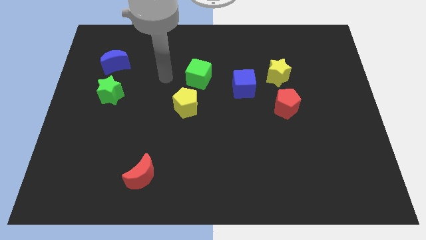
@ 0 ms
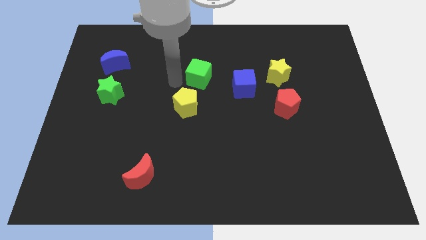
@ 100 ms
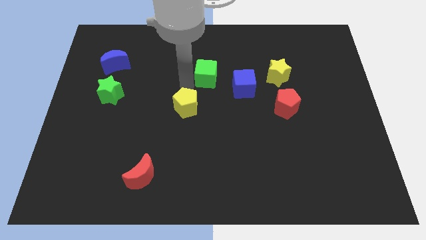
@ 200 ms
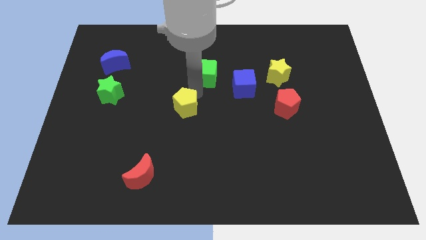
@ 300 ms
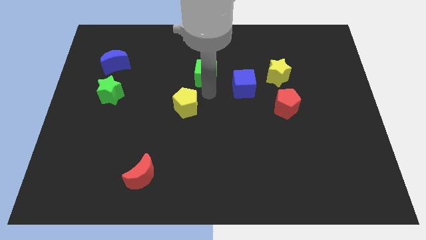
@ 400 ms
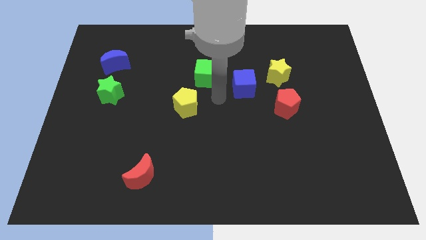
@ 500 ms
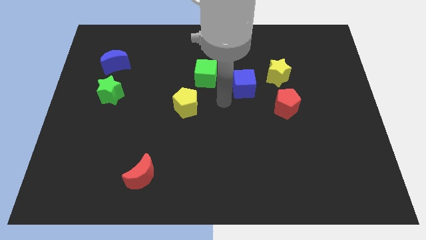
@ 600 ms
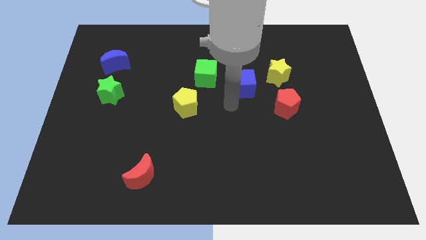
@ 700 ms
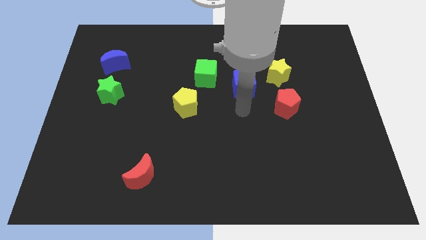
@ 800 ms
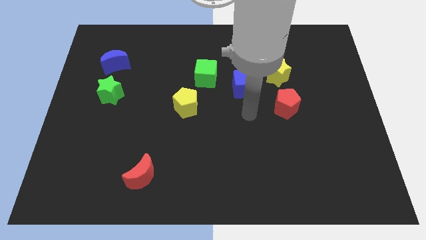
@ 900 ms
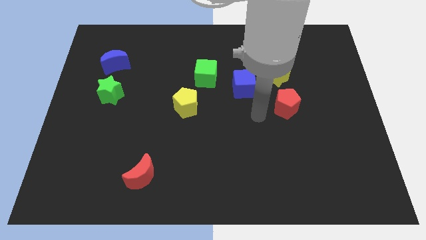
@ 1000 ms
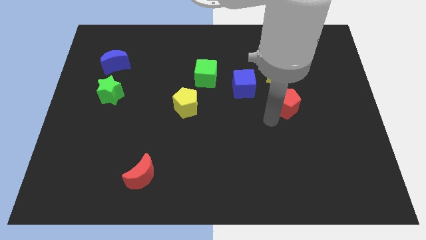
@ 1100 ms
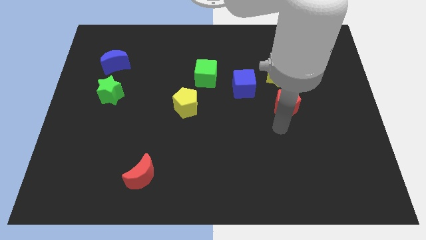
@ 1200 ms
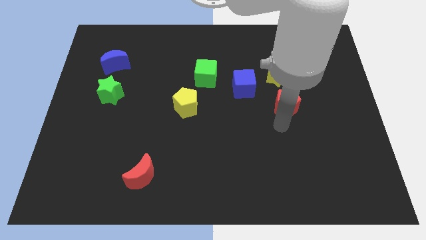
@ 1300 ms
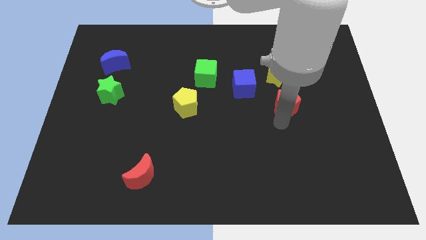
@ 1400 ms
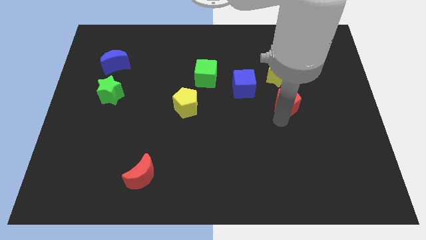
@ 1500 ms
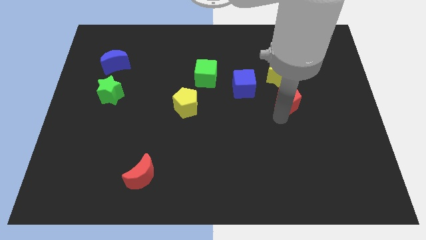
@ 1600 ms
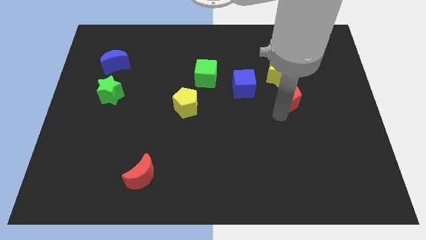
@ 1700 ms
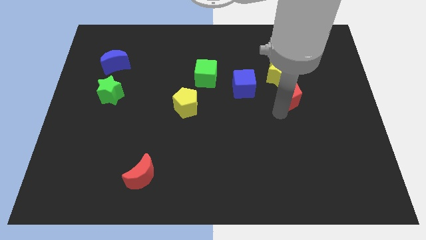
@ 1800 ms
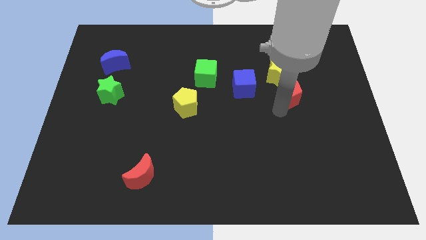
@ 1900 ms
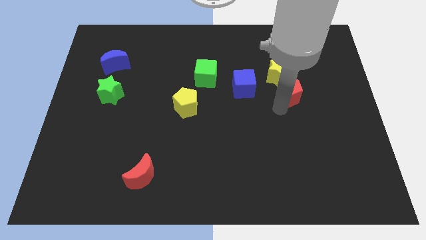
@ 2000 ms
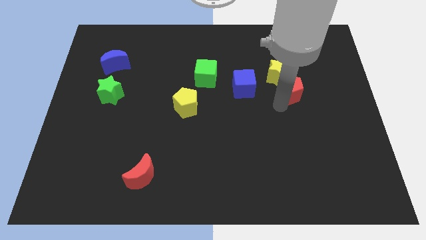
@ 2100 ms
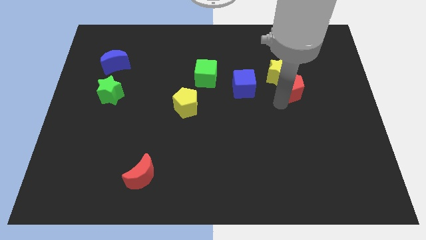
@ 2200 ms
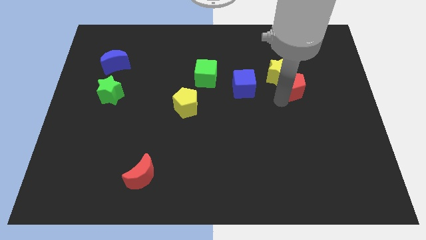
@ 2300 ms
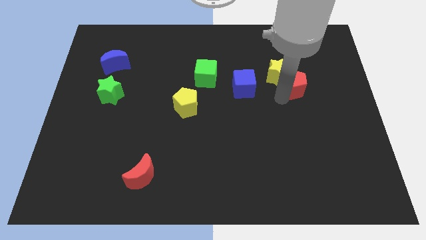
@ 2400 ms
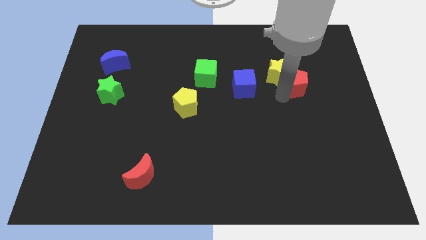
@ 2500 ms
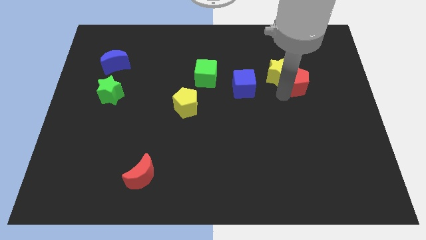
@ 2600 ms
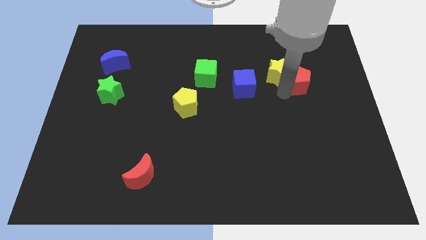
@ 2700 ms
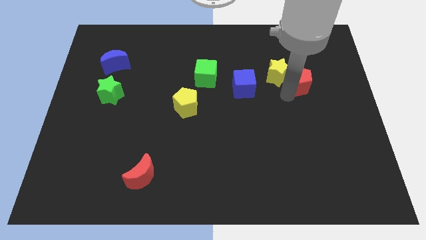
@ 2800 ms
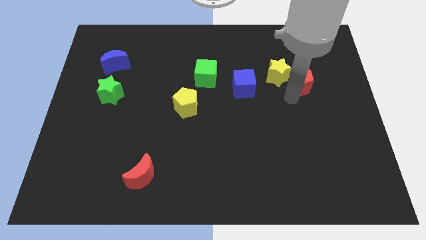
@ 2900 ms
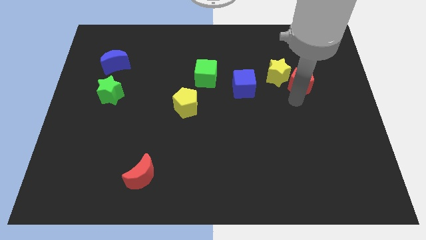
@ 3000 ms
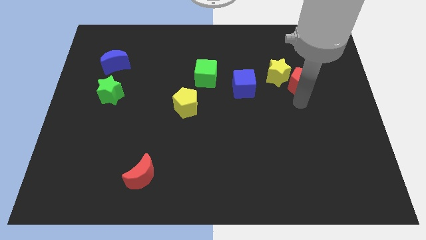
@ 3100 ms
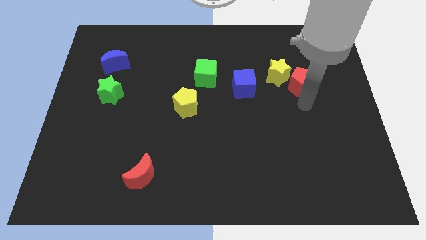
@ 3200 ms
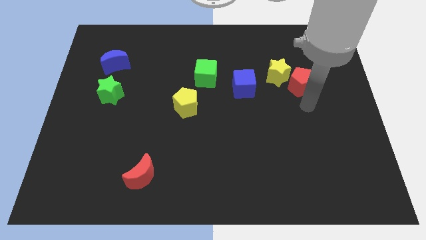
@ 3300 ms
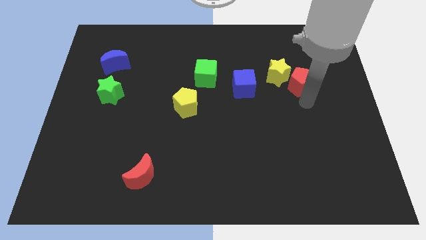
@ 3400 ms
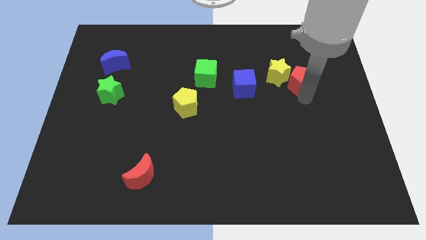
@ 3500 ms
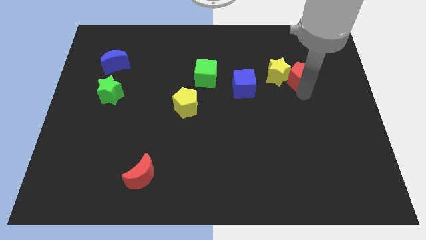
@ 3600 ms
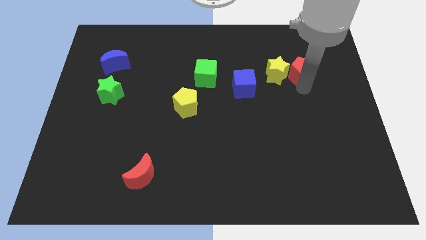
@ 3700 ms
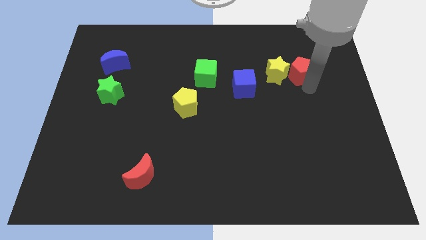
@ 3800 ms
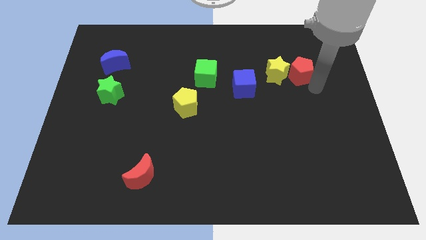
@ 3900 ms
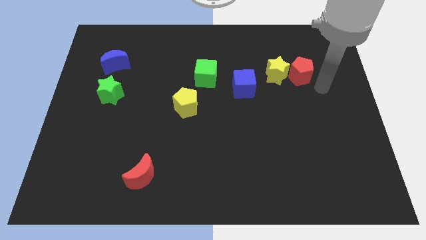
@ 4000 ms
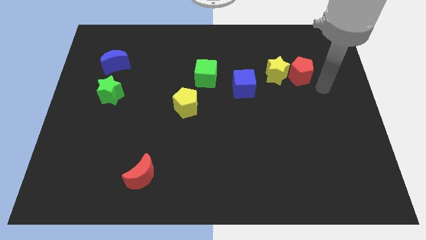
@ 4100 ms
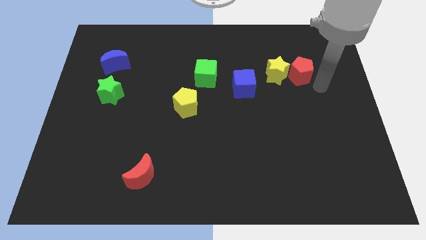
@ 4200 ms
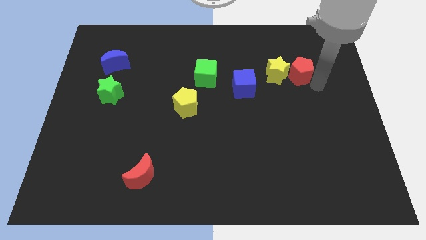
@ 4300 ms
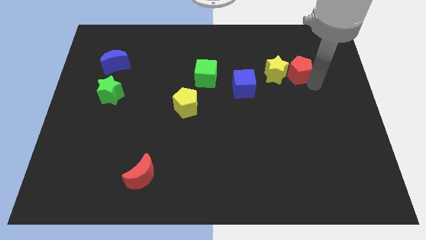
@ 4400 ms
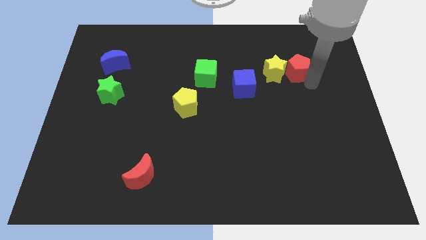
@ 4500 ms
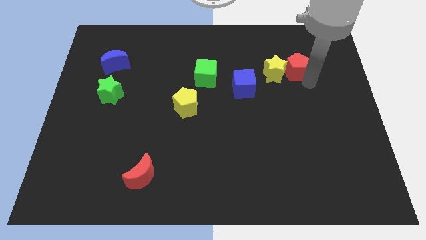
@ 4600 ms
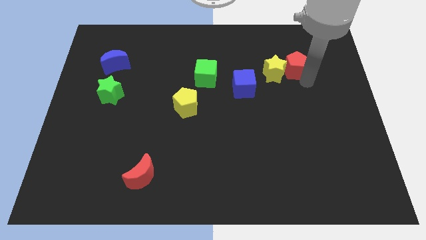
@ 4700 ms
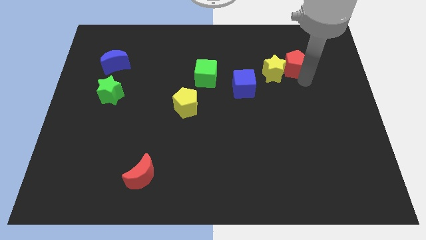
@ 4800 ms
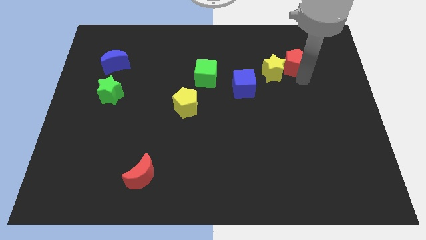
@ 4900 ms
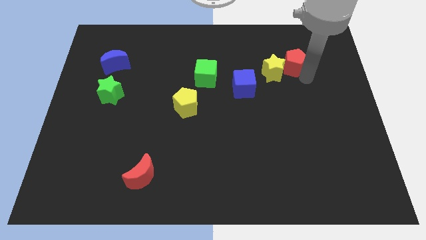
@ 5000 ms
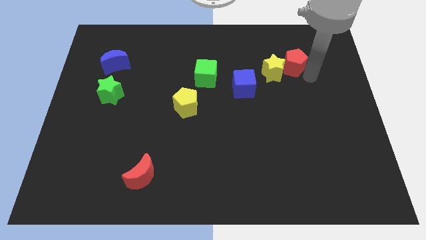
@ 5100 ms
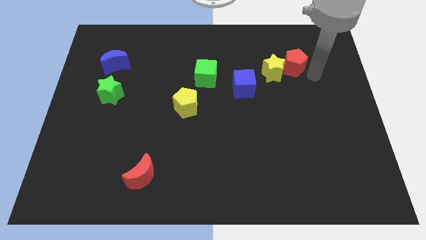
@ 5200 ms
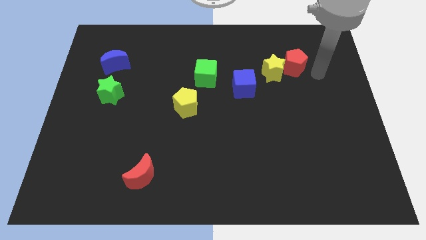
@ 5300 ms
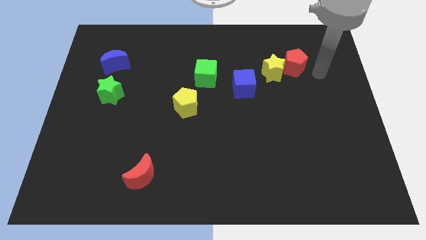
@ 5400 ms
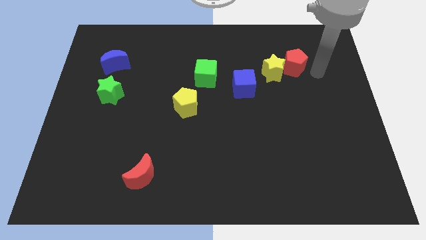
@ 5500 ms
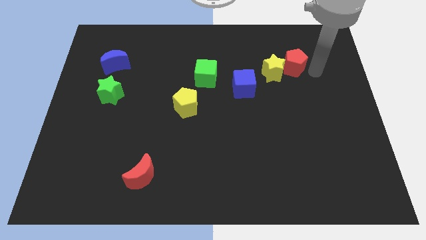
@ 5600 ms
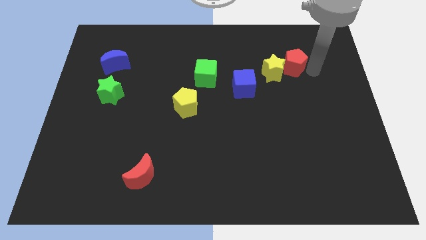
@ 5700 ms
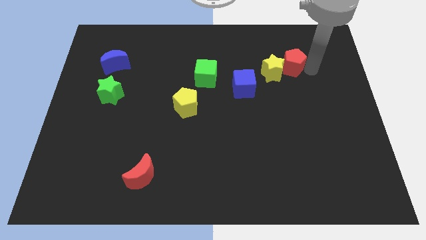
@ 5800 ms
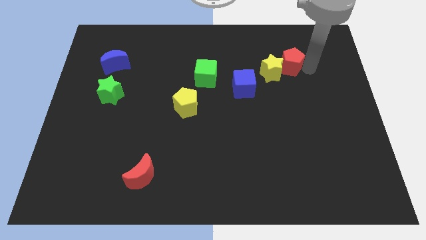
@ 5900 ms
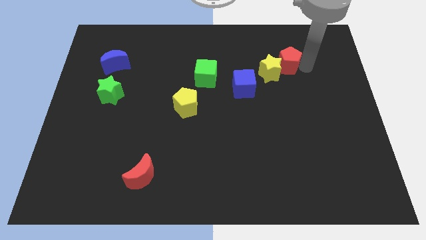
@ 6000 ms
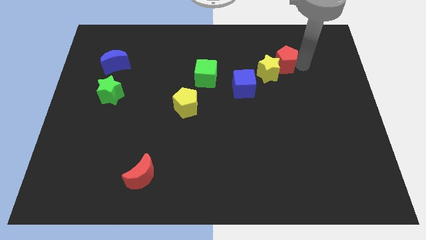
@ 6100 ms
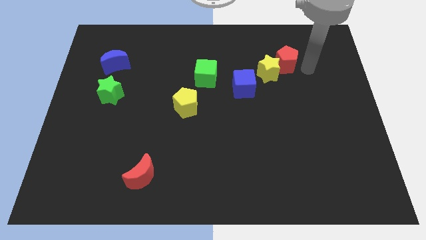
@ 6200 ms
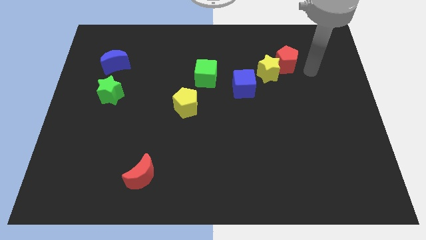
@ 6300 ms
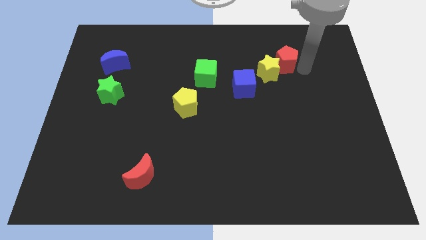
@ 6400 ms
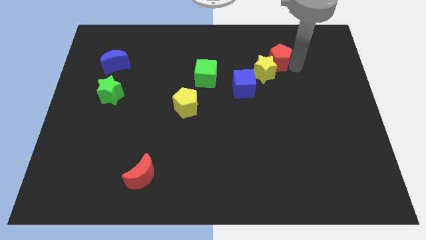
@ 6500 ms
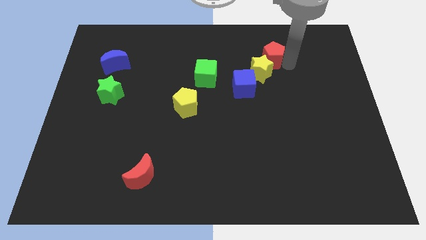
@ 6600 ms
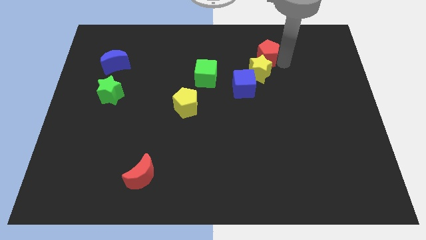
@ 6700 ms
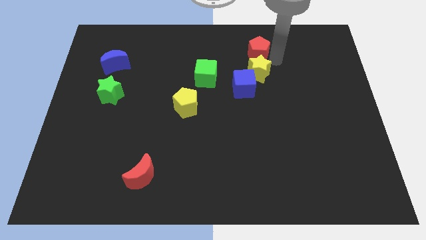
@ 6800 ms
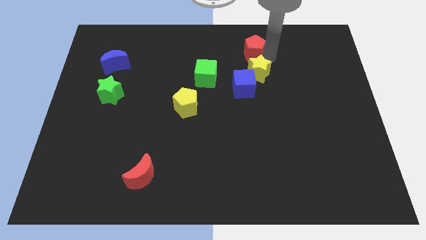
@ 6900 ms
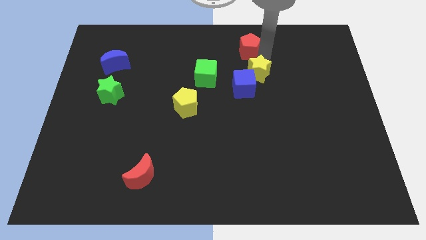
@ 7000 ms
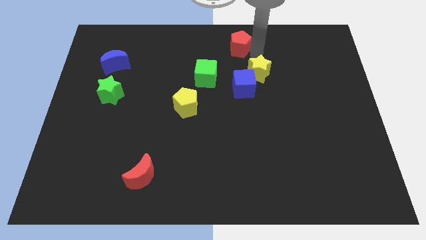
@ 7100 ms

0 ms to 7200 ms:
move the red pentagon to the towards your base
